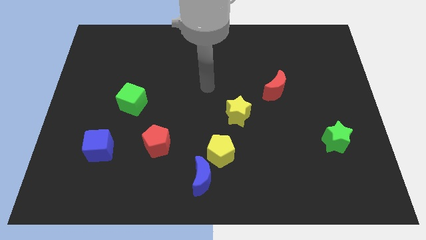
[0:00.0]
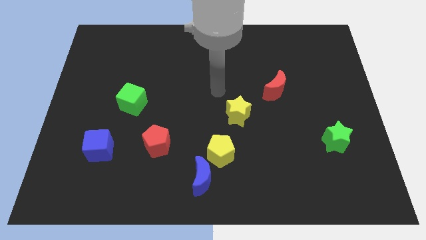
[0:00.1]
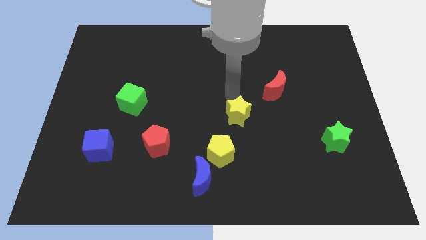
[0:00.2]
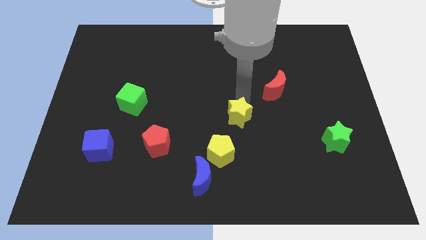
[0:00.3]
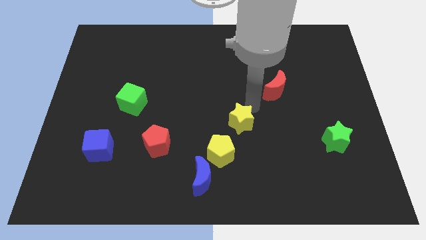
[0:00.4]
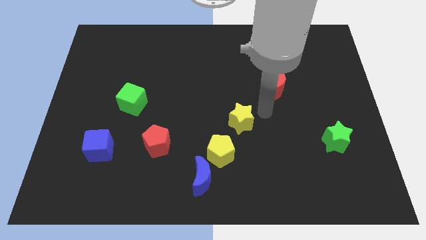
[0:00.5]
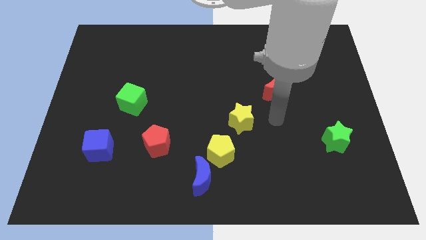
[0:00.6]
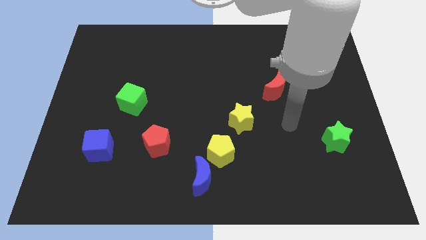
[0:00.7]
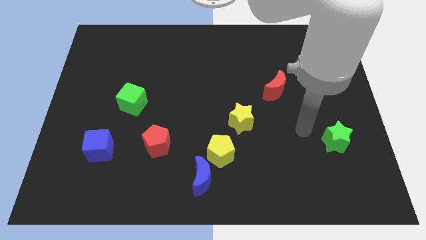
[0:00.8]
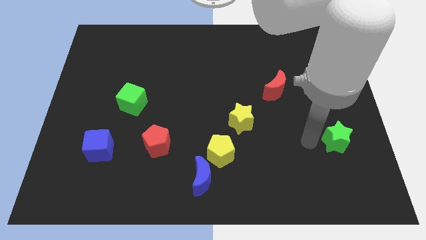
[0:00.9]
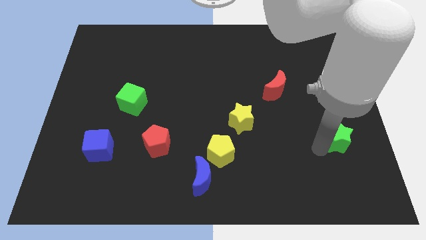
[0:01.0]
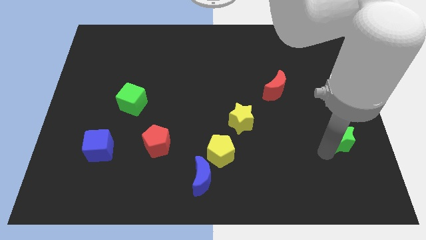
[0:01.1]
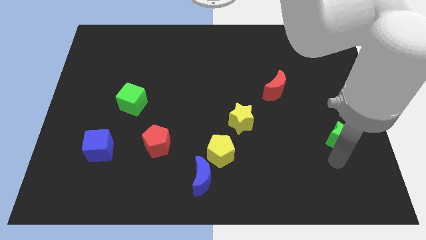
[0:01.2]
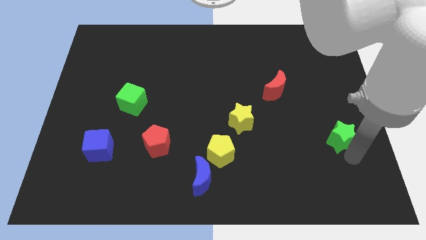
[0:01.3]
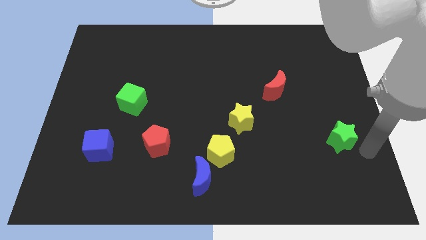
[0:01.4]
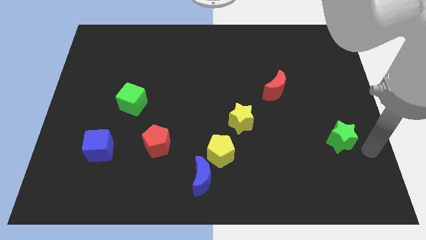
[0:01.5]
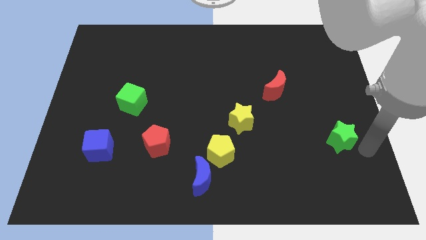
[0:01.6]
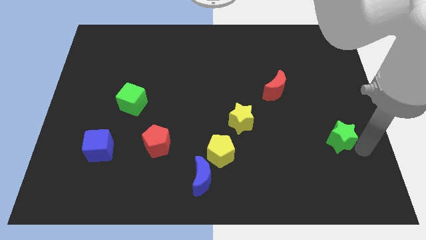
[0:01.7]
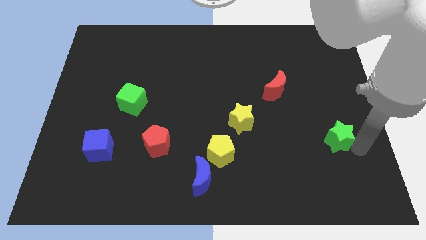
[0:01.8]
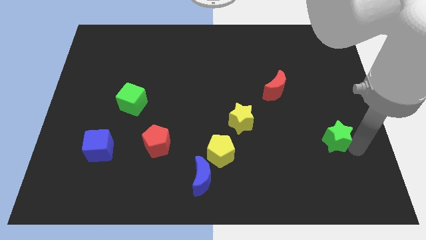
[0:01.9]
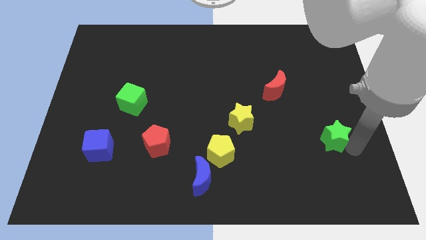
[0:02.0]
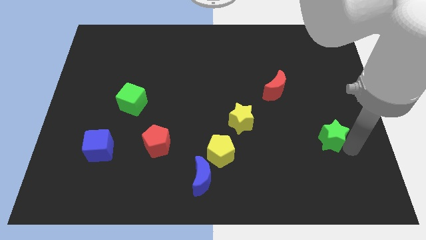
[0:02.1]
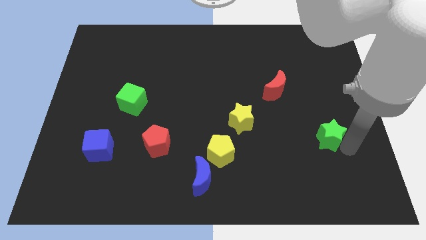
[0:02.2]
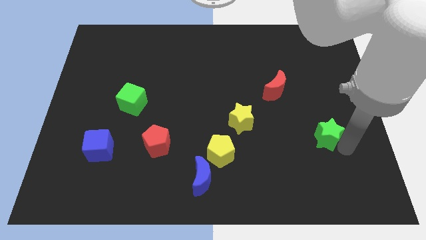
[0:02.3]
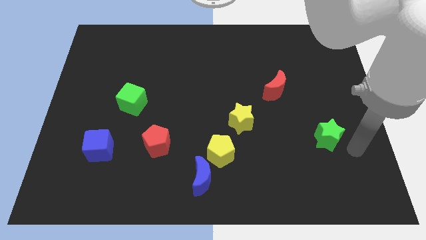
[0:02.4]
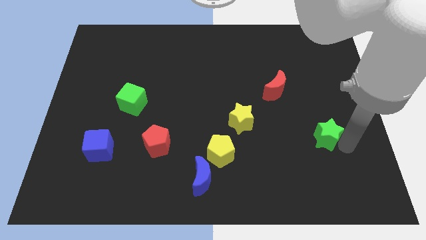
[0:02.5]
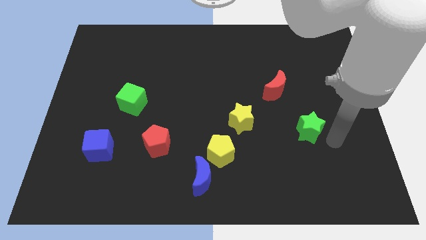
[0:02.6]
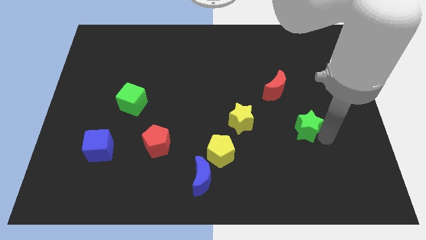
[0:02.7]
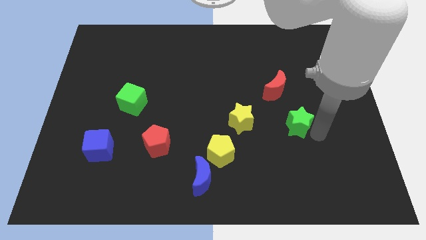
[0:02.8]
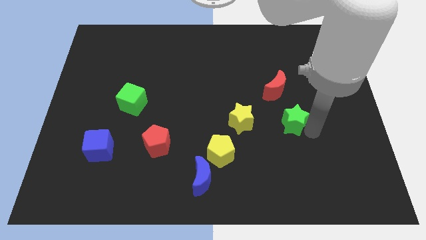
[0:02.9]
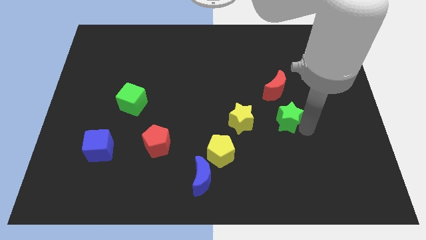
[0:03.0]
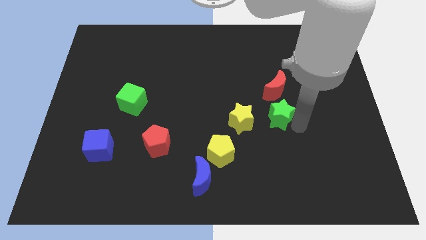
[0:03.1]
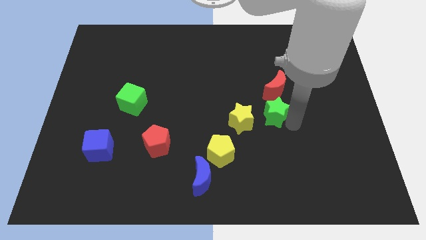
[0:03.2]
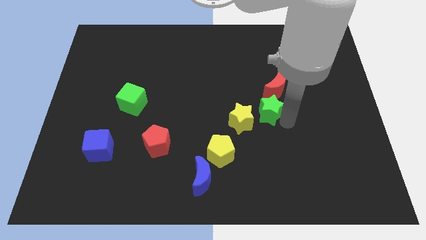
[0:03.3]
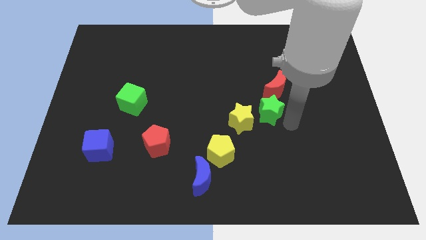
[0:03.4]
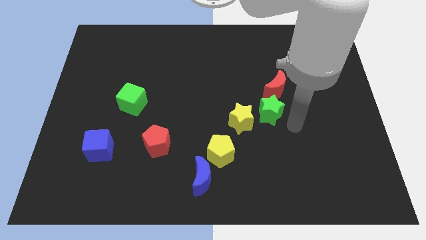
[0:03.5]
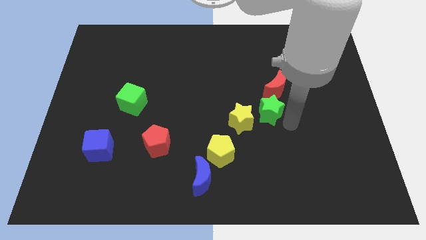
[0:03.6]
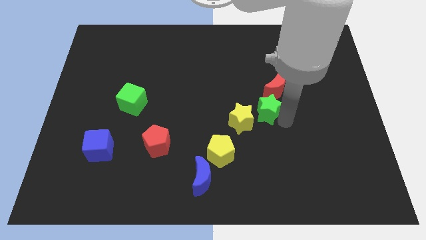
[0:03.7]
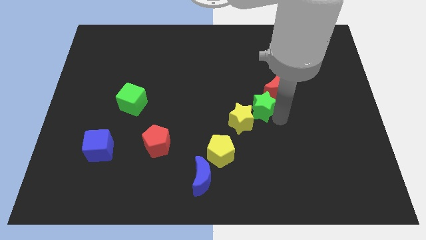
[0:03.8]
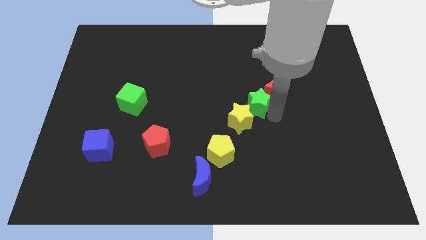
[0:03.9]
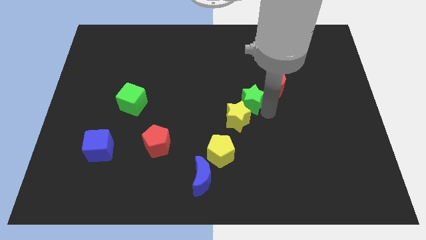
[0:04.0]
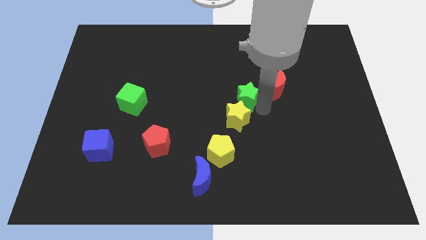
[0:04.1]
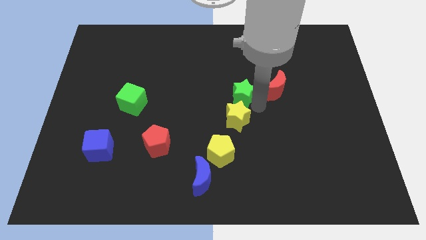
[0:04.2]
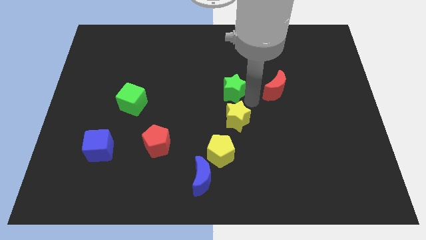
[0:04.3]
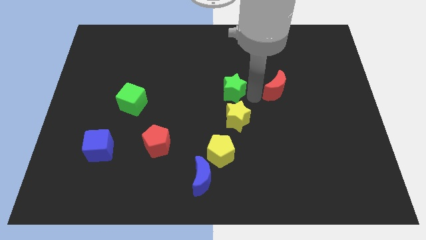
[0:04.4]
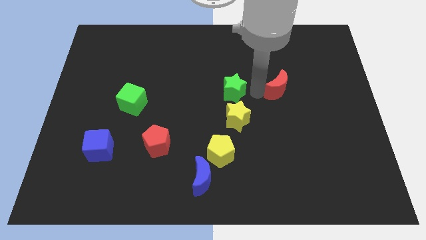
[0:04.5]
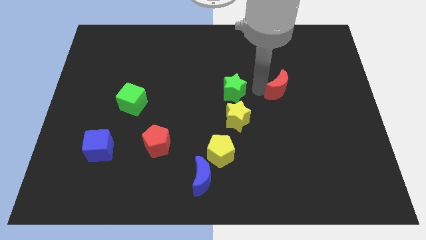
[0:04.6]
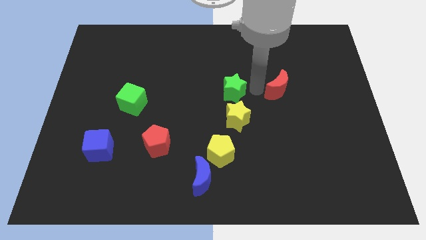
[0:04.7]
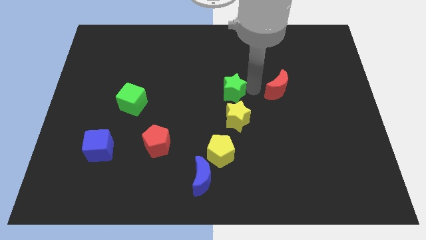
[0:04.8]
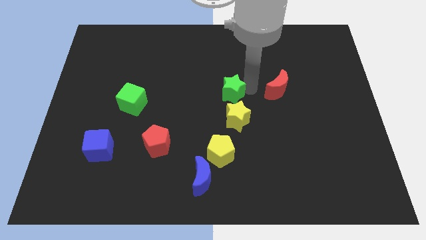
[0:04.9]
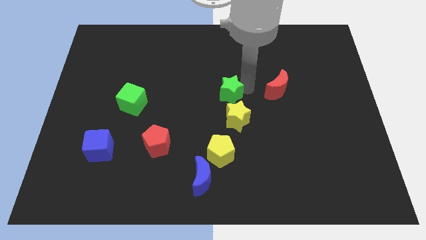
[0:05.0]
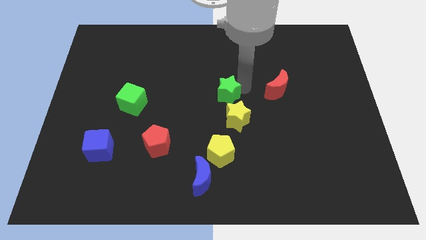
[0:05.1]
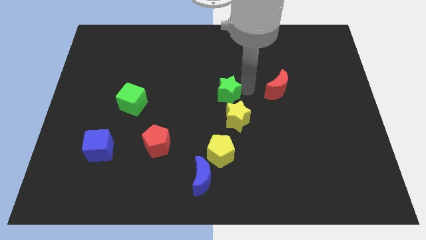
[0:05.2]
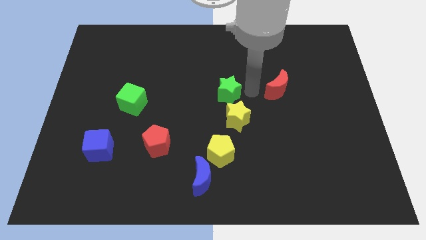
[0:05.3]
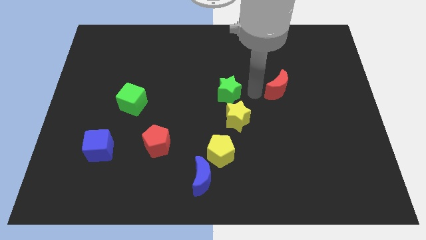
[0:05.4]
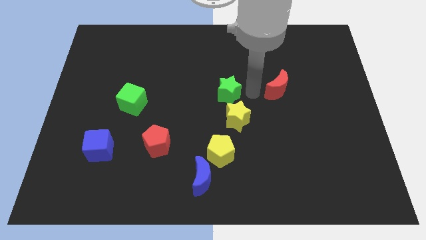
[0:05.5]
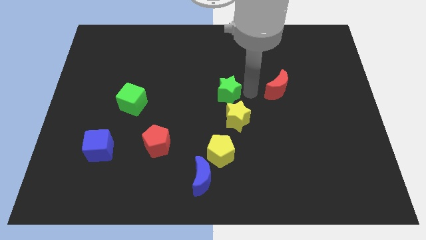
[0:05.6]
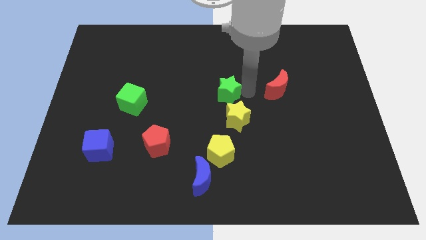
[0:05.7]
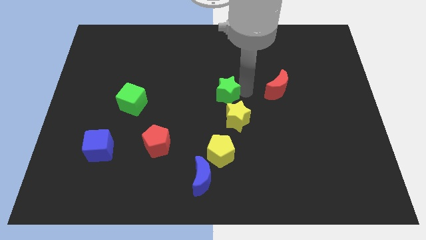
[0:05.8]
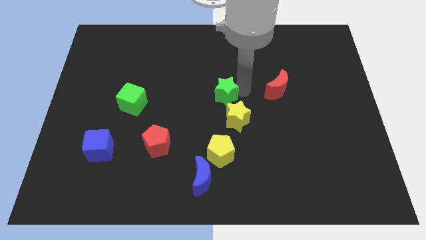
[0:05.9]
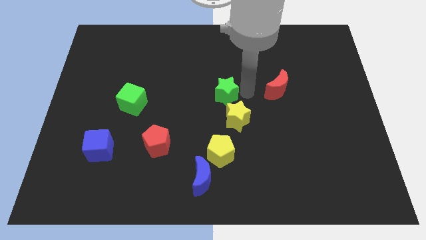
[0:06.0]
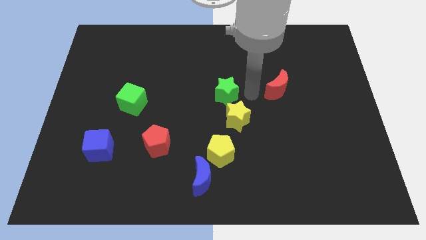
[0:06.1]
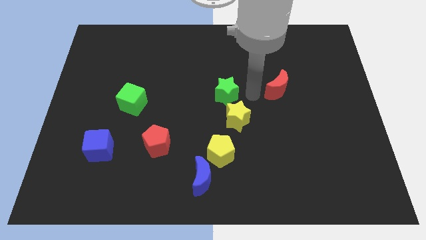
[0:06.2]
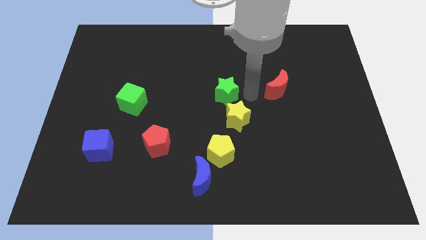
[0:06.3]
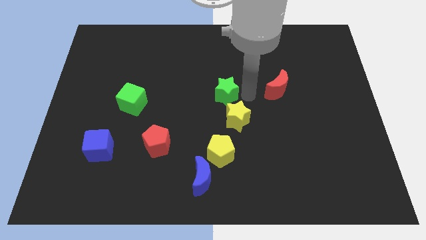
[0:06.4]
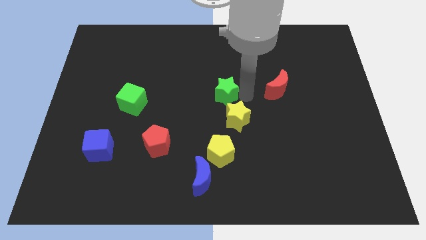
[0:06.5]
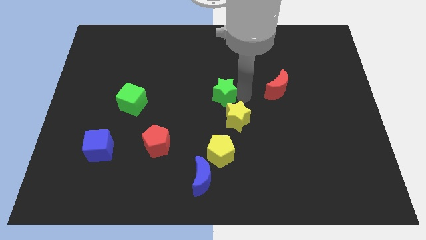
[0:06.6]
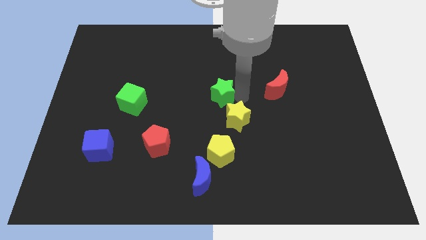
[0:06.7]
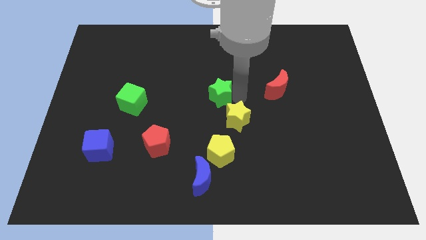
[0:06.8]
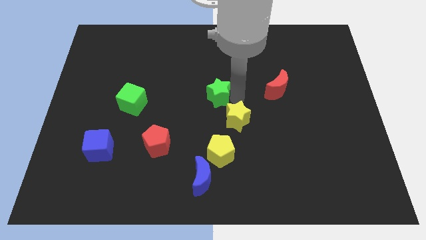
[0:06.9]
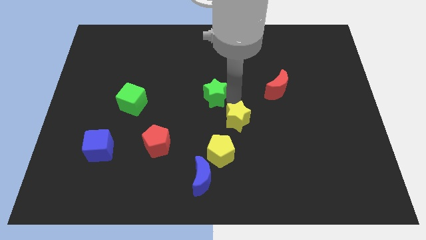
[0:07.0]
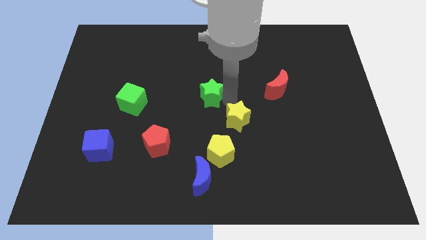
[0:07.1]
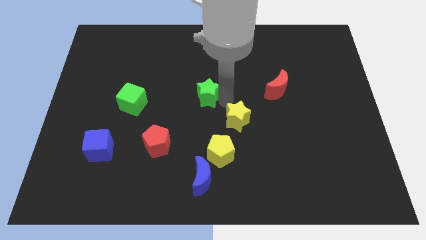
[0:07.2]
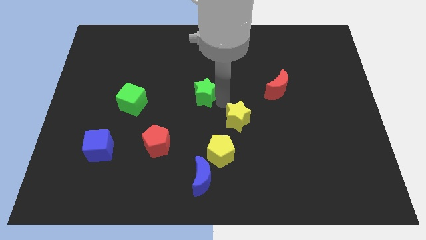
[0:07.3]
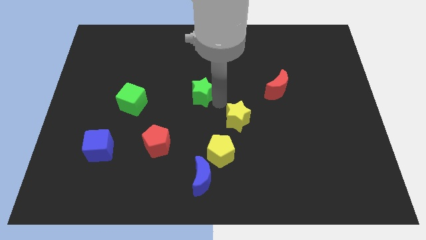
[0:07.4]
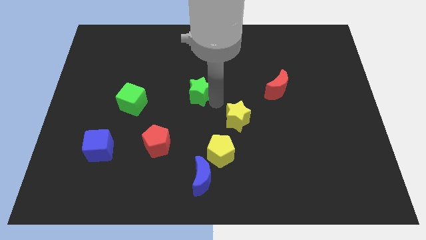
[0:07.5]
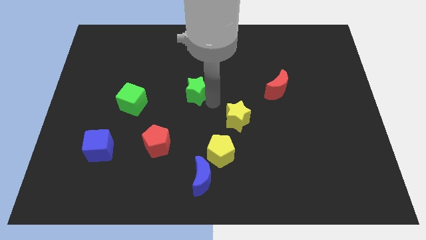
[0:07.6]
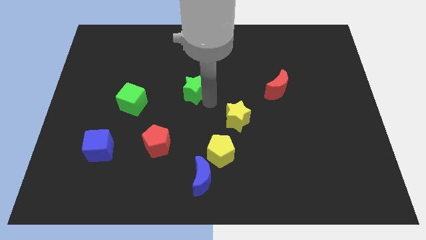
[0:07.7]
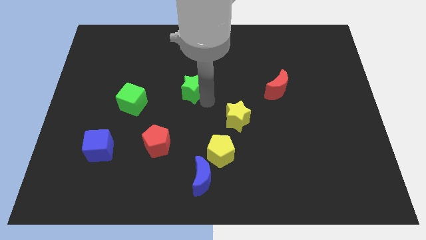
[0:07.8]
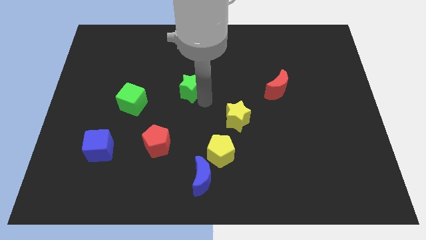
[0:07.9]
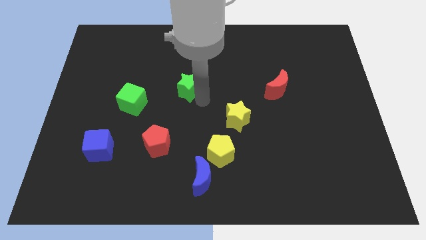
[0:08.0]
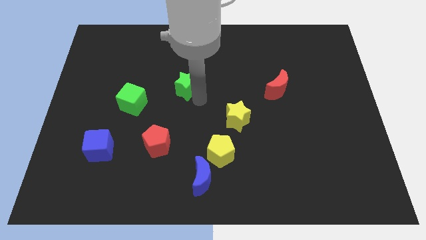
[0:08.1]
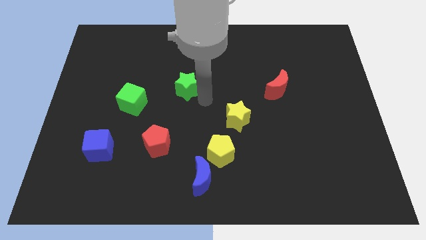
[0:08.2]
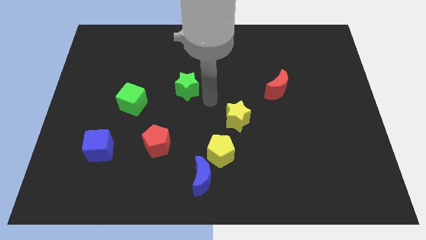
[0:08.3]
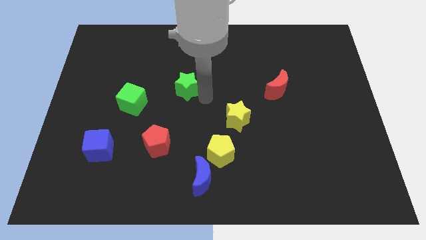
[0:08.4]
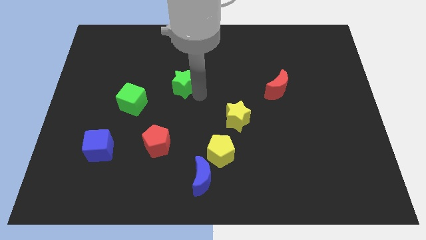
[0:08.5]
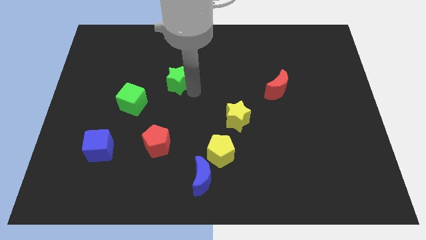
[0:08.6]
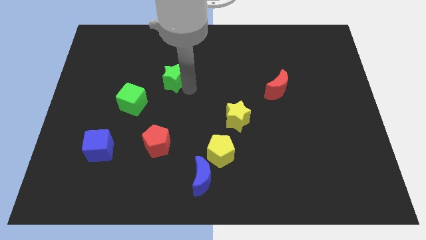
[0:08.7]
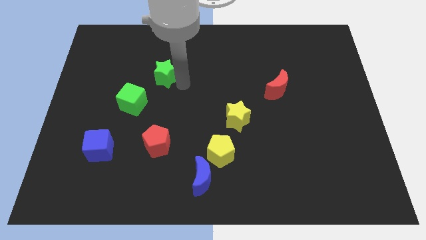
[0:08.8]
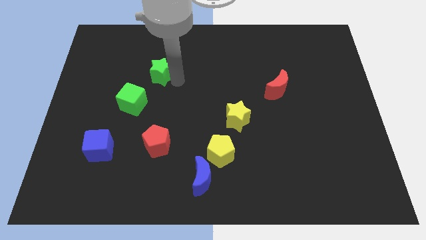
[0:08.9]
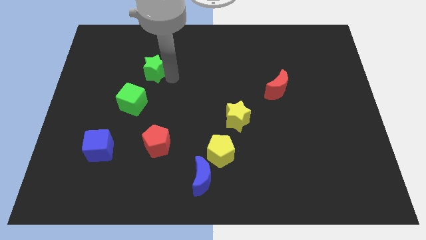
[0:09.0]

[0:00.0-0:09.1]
push the green star above the green cube
